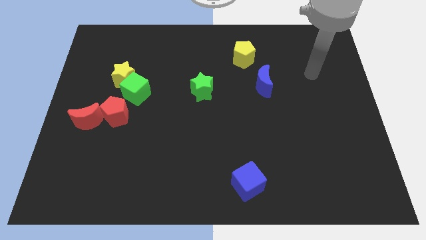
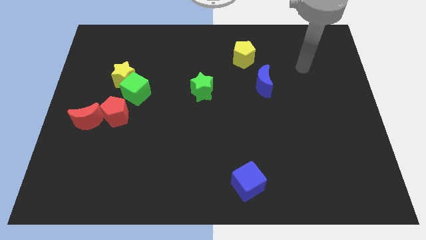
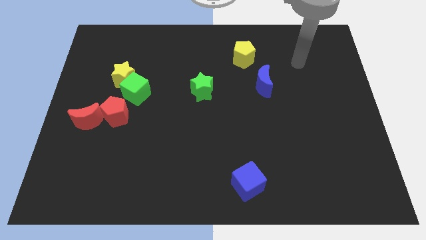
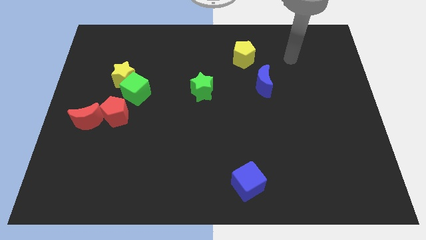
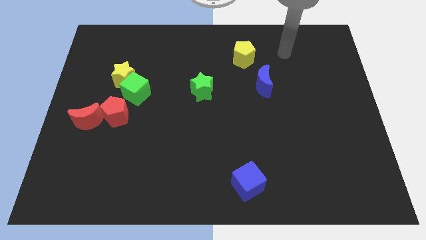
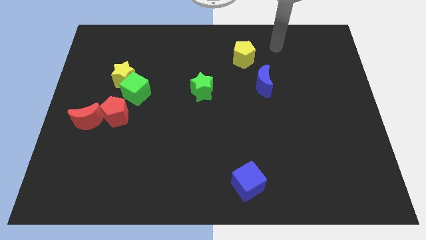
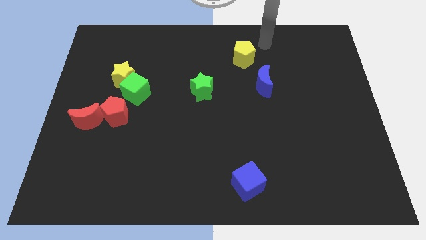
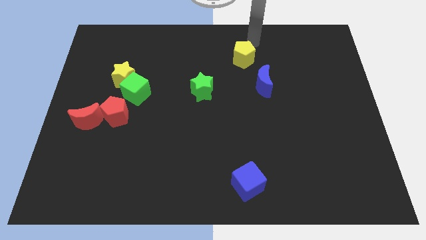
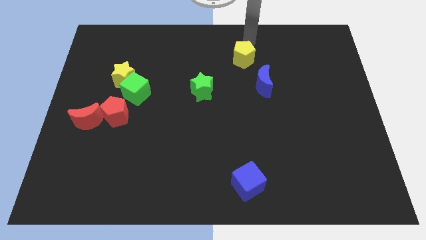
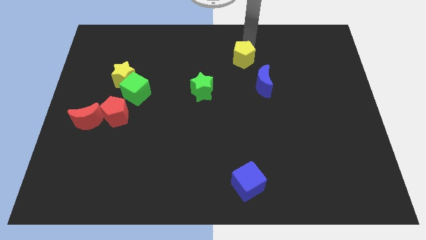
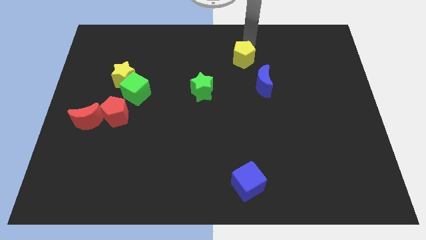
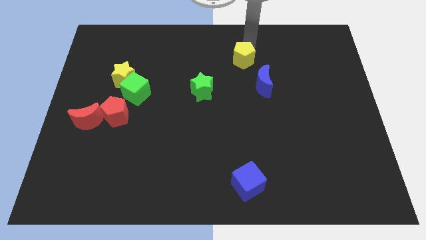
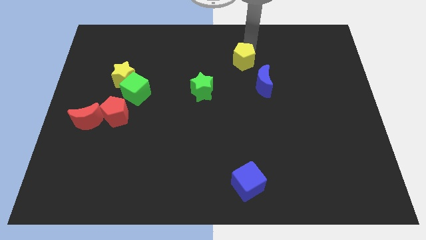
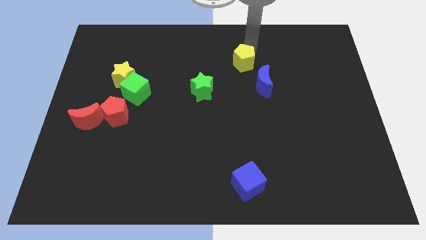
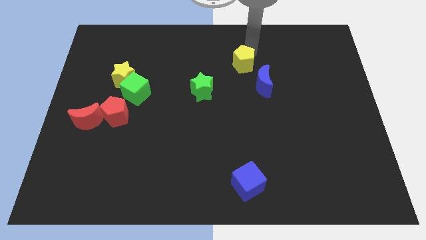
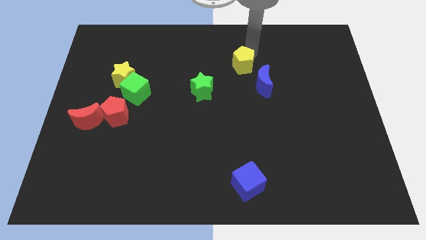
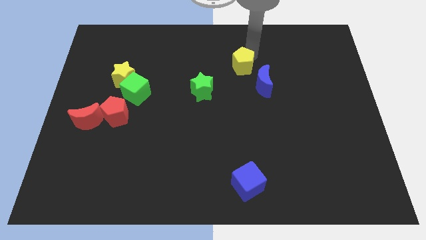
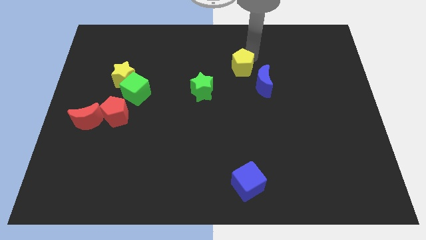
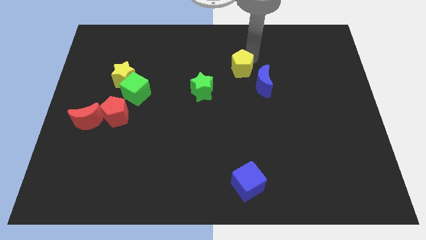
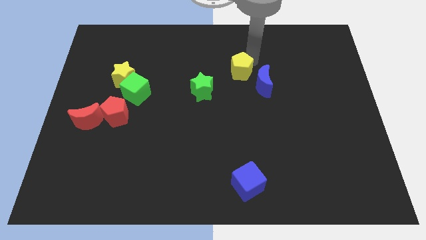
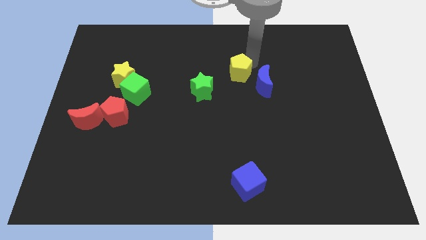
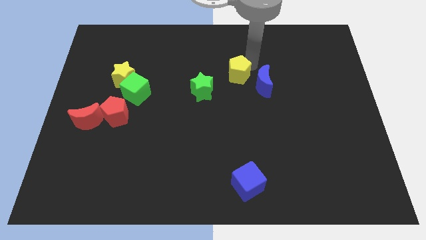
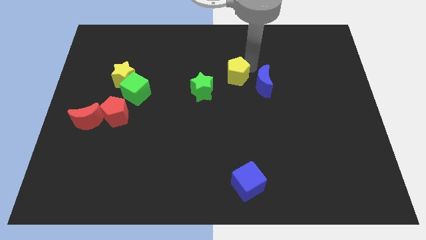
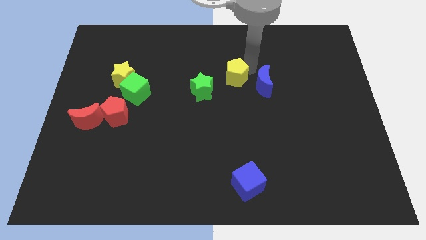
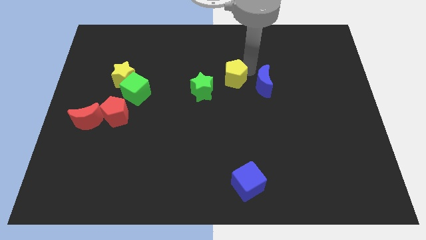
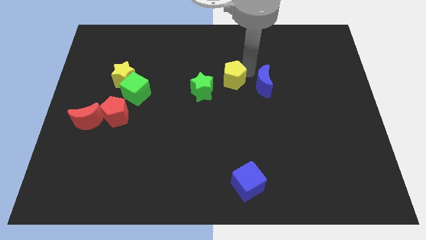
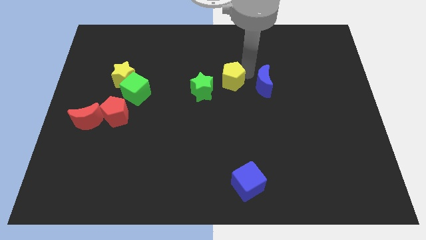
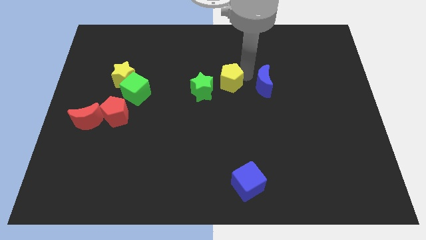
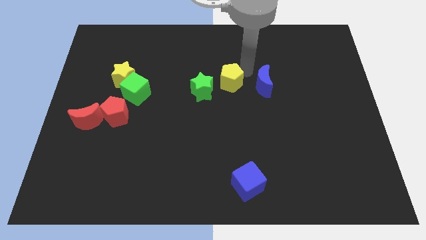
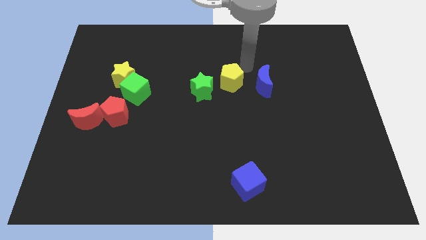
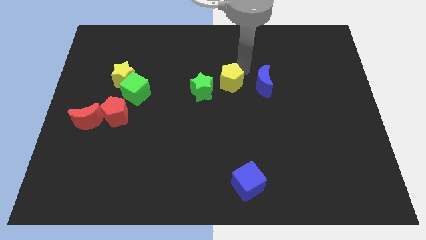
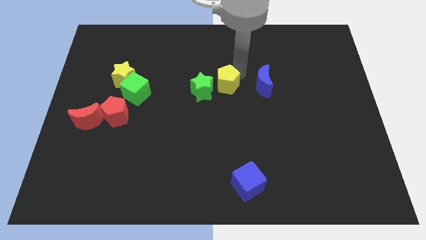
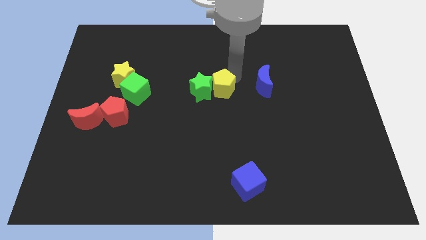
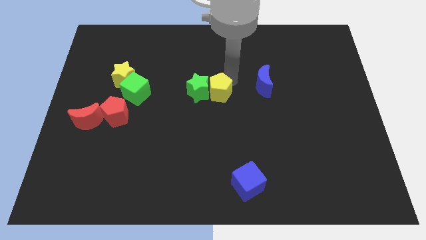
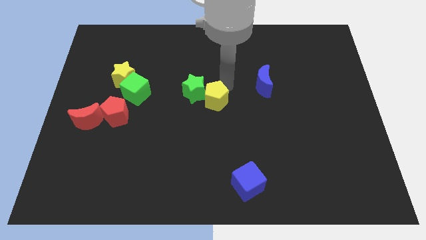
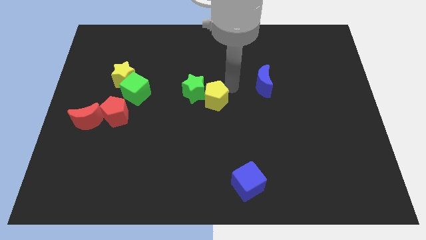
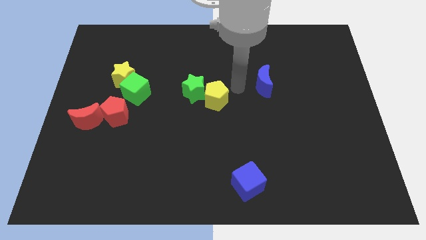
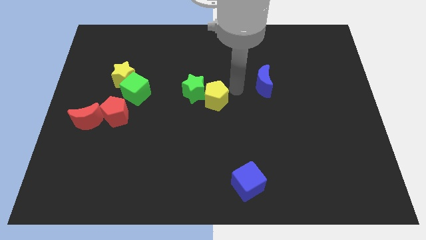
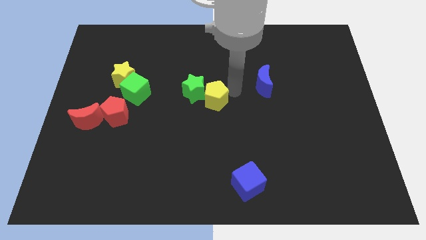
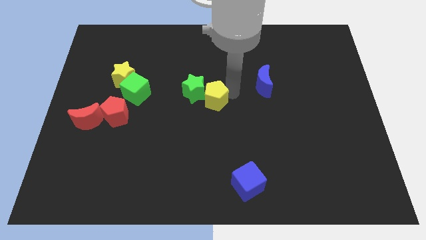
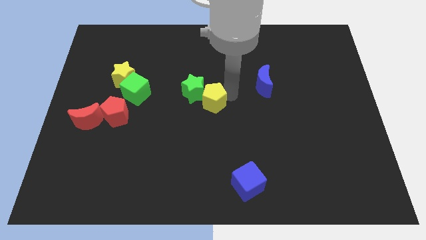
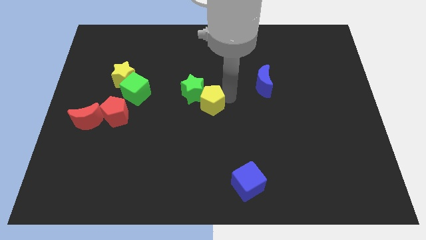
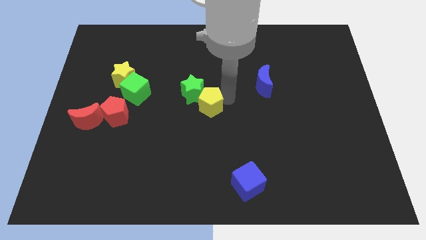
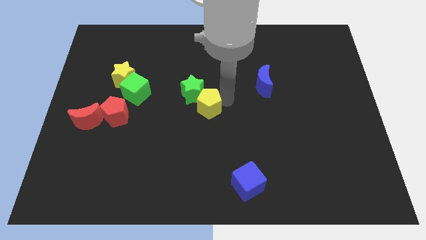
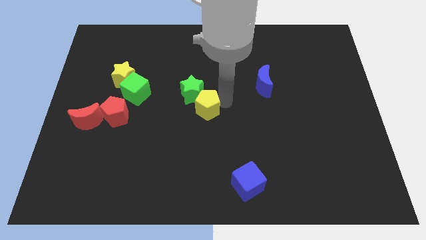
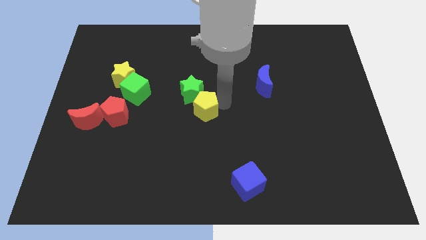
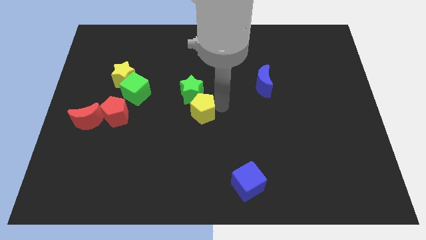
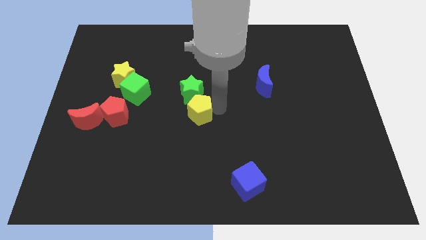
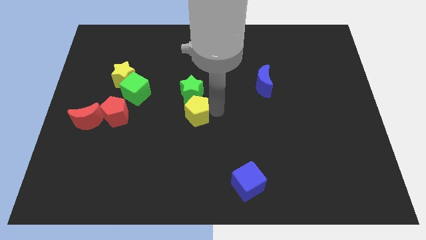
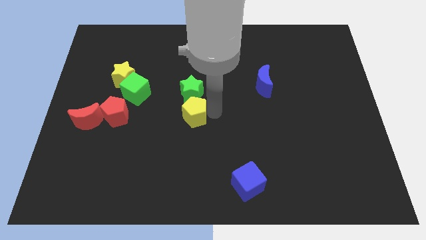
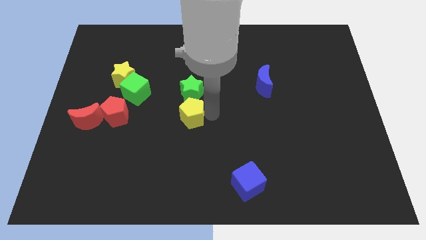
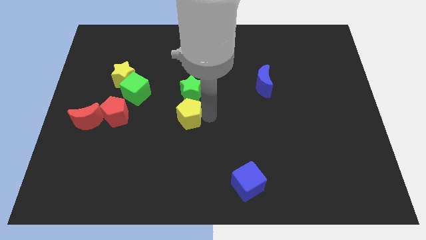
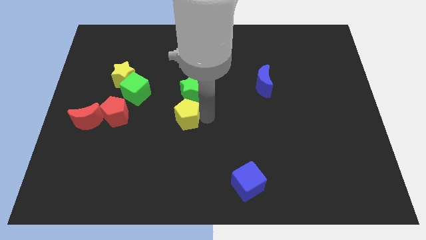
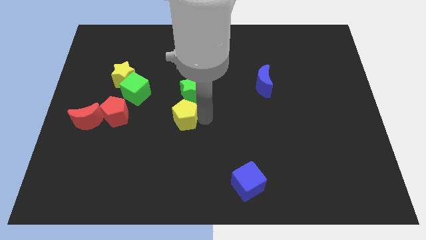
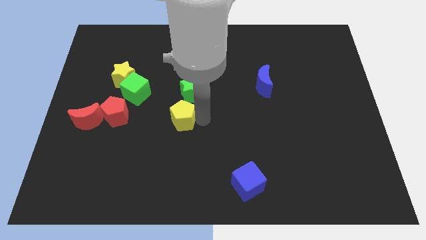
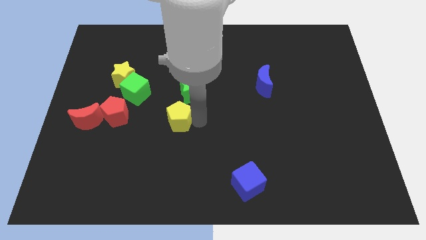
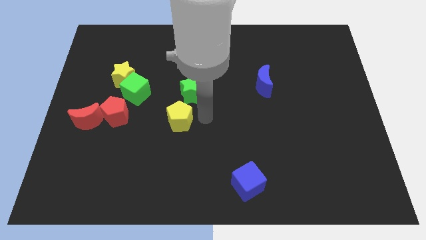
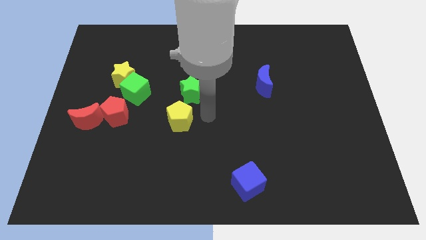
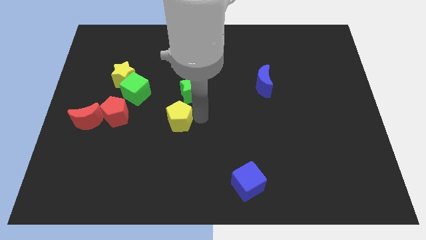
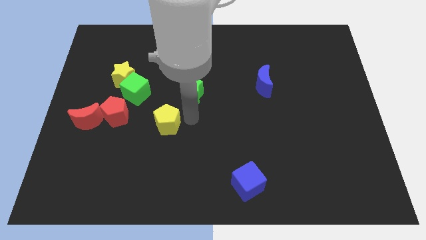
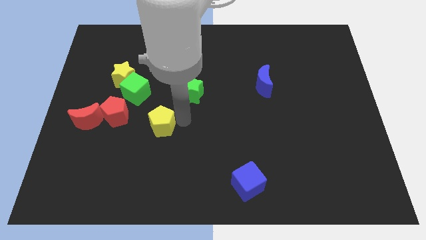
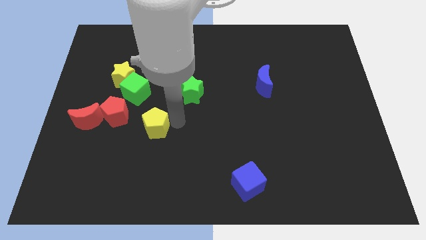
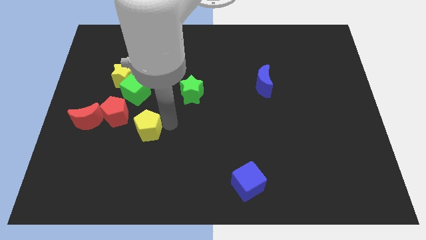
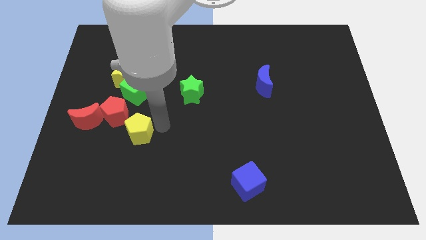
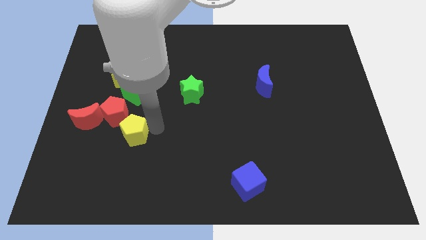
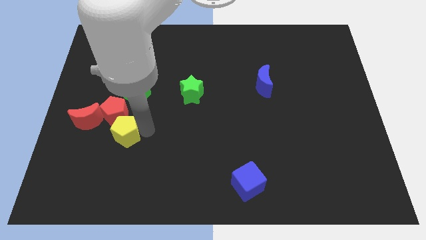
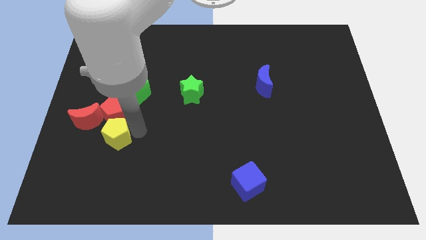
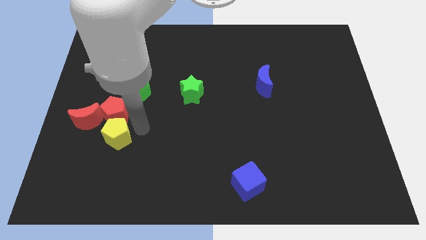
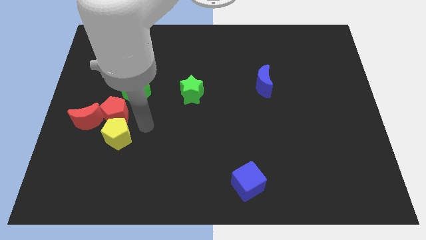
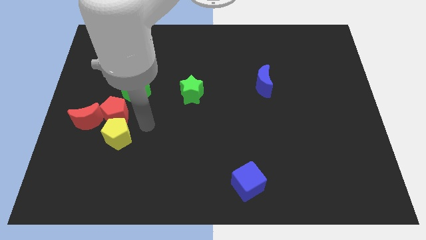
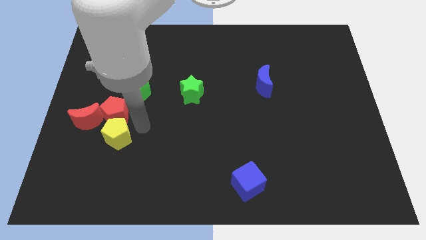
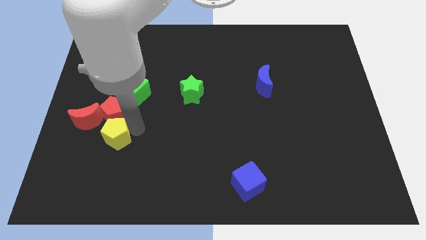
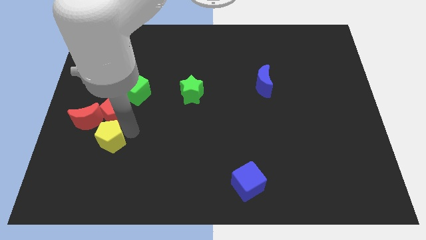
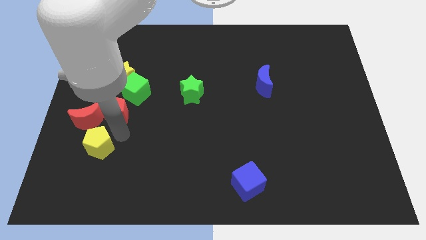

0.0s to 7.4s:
push the yellow pentagon below the red moon
